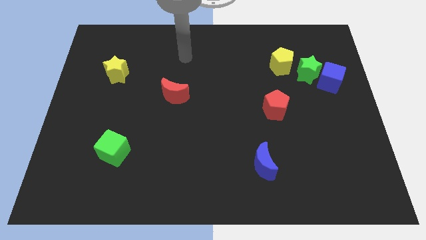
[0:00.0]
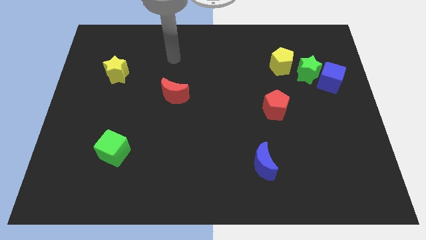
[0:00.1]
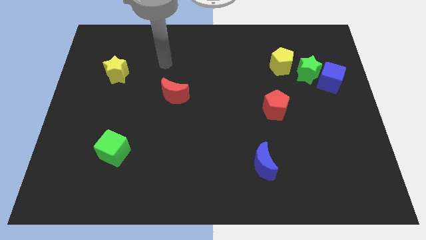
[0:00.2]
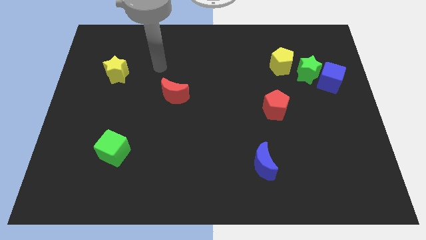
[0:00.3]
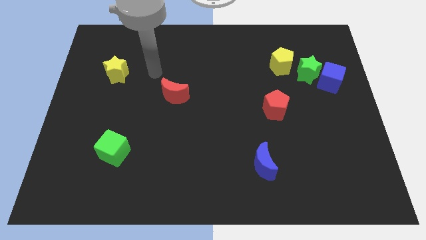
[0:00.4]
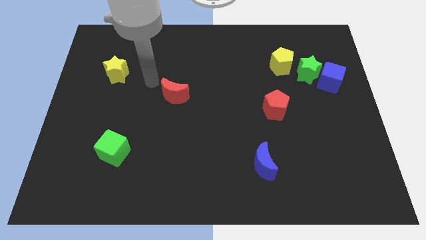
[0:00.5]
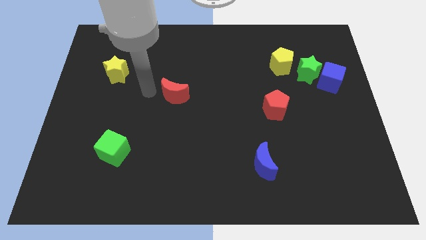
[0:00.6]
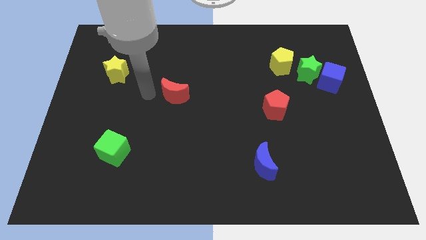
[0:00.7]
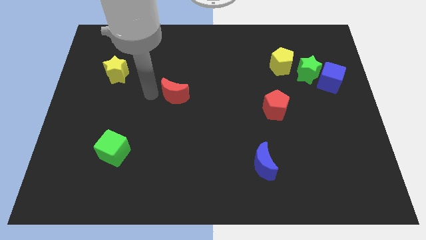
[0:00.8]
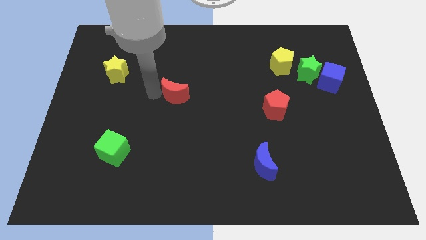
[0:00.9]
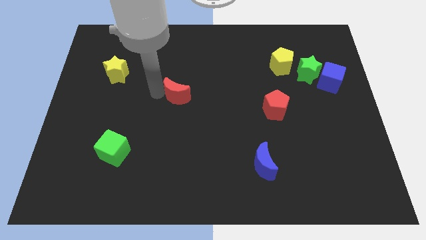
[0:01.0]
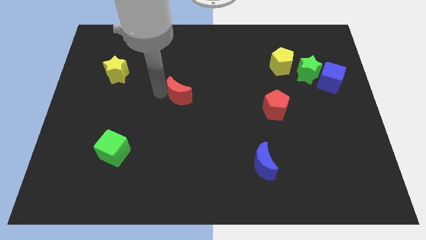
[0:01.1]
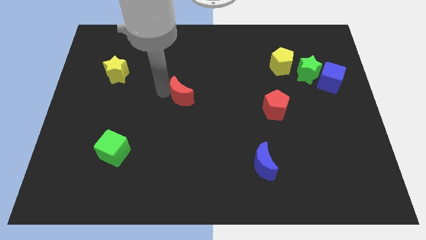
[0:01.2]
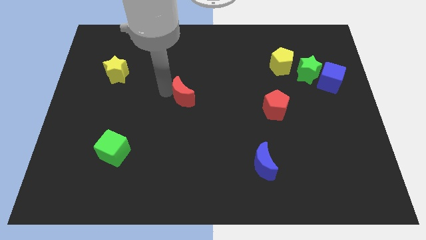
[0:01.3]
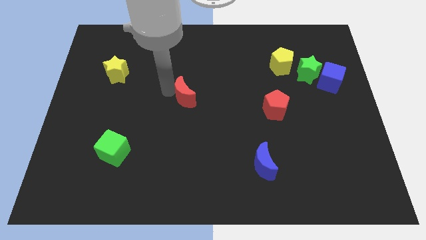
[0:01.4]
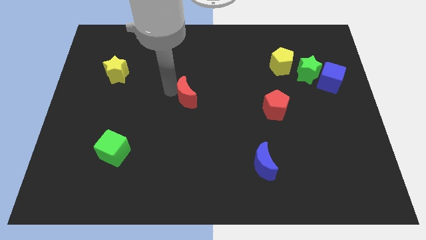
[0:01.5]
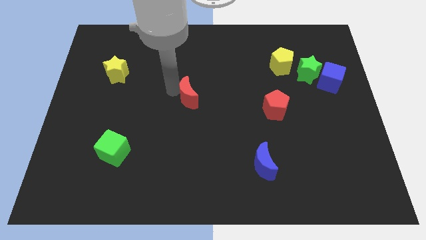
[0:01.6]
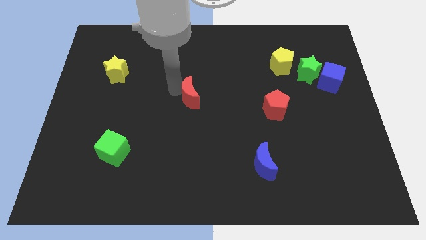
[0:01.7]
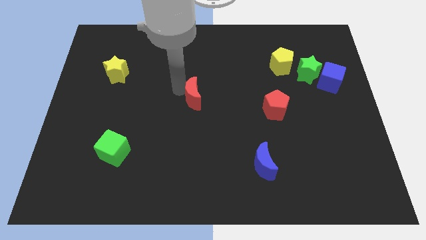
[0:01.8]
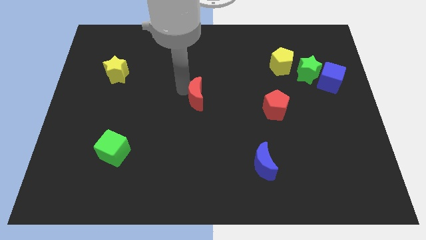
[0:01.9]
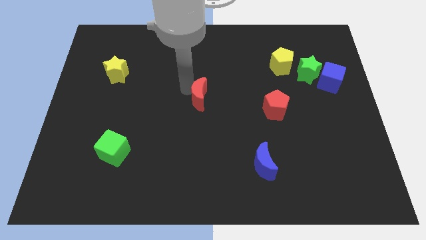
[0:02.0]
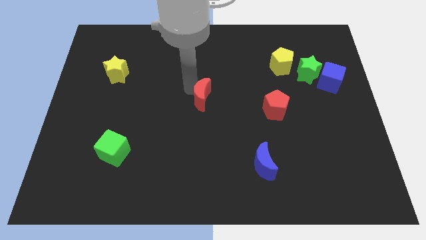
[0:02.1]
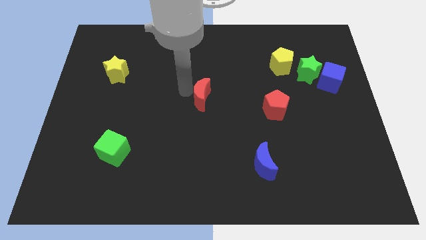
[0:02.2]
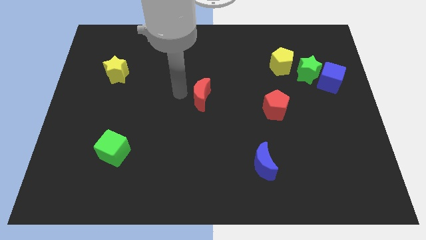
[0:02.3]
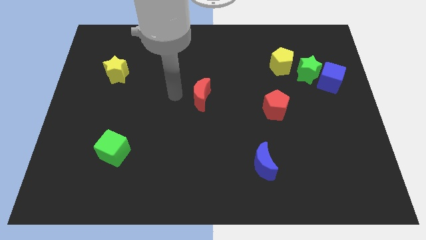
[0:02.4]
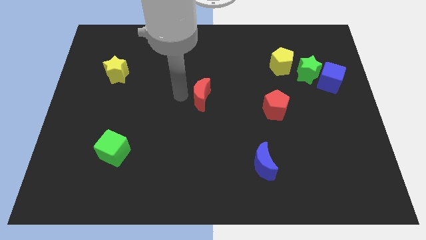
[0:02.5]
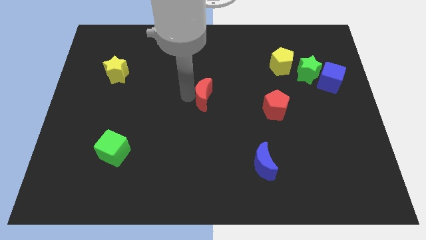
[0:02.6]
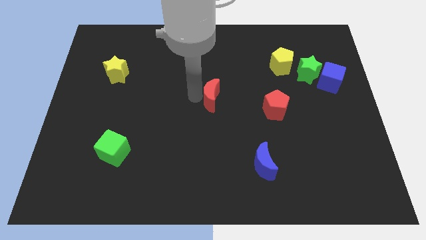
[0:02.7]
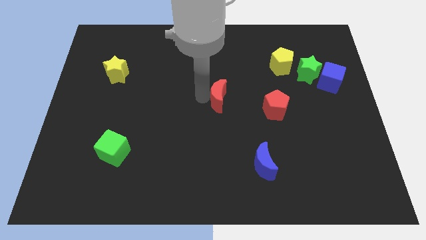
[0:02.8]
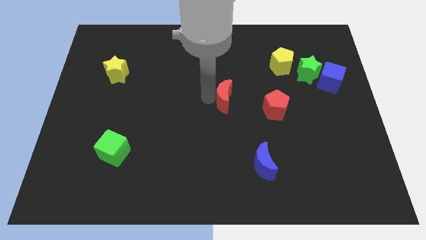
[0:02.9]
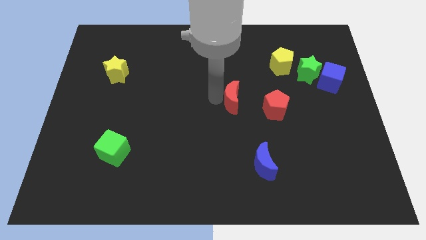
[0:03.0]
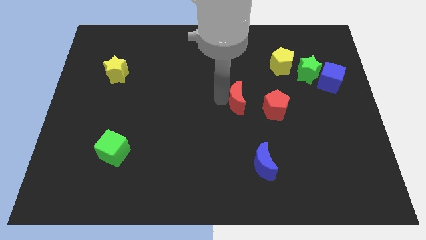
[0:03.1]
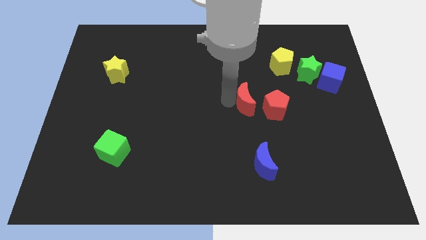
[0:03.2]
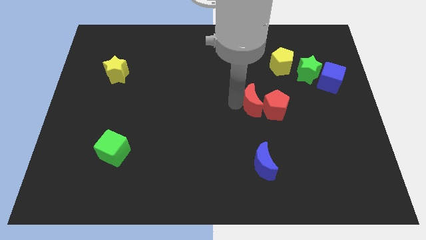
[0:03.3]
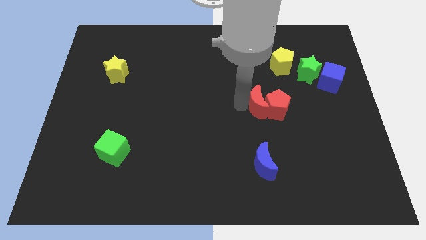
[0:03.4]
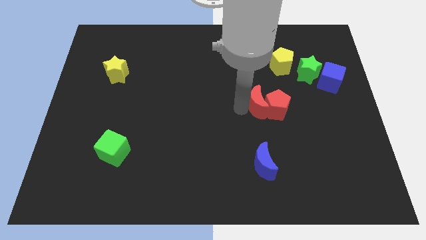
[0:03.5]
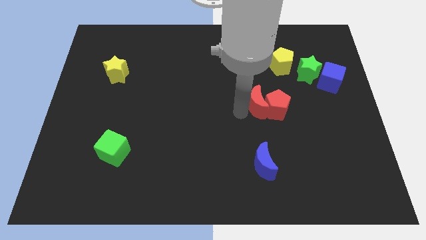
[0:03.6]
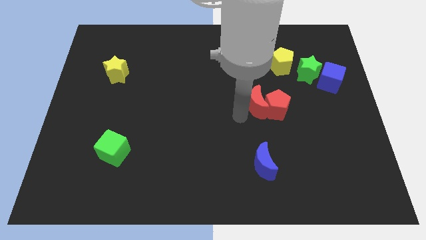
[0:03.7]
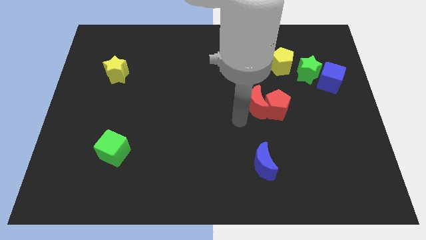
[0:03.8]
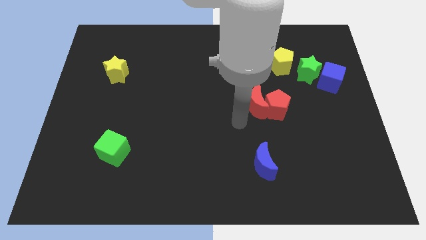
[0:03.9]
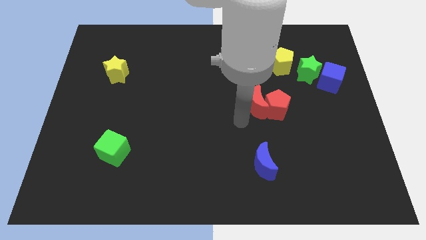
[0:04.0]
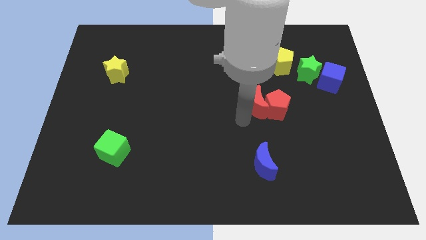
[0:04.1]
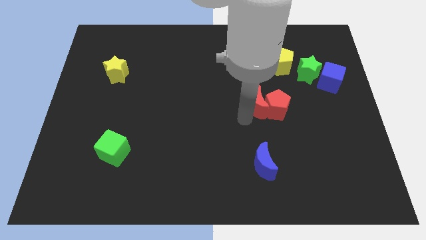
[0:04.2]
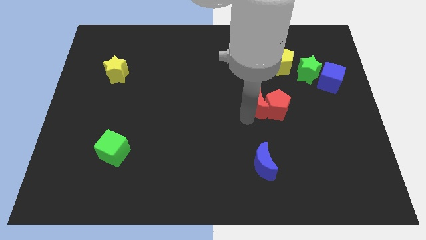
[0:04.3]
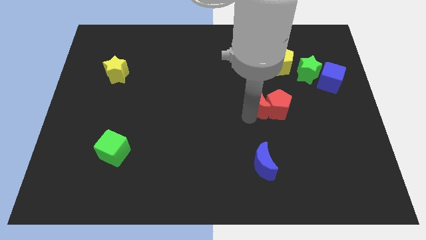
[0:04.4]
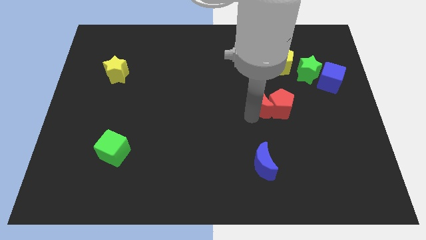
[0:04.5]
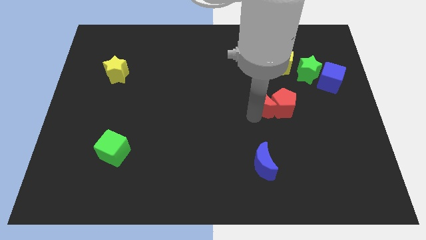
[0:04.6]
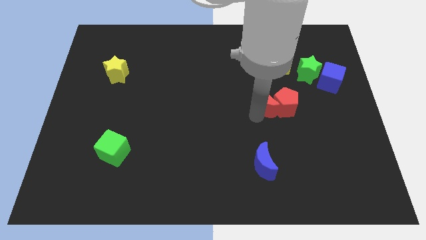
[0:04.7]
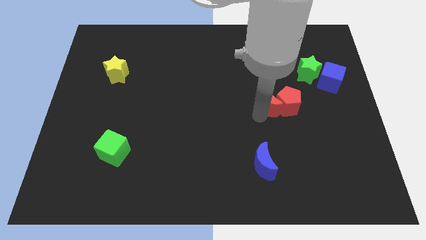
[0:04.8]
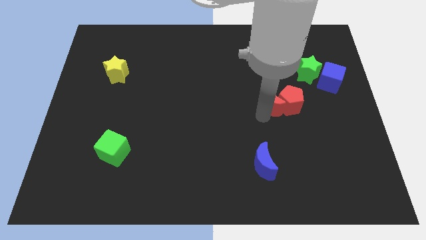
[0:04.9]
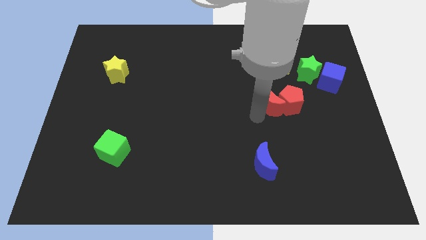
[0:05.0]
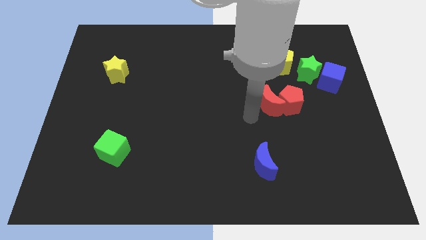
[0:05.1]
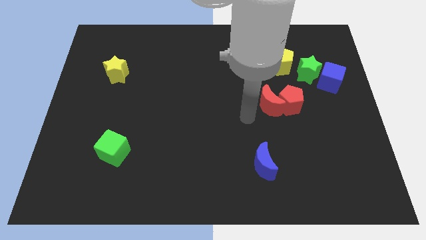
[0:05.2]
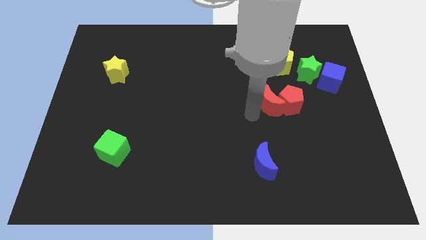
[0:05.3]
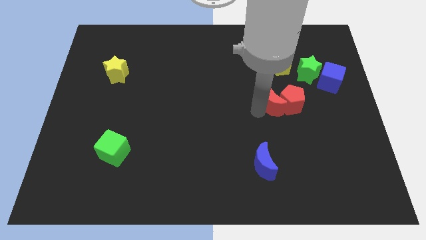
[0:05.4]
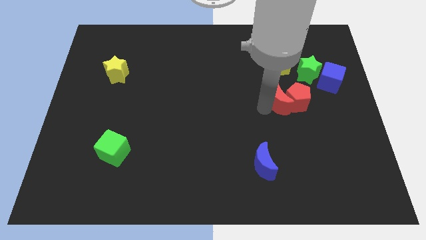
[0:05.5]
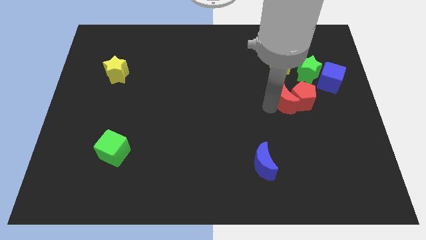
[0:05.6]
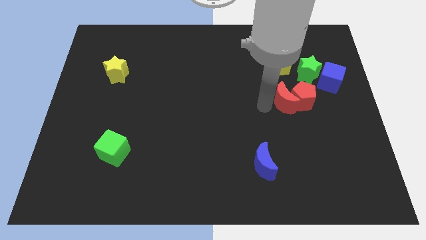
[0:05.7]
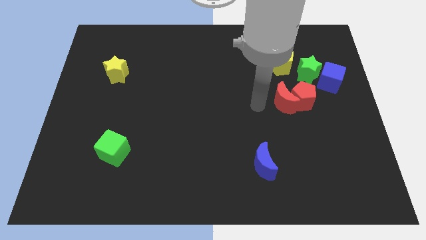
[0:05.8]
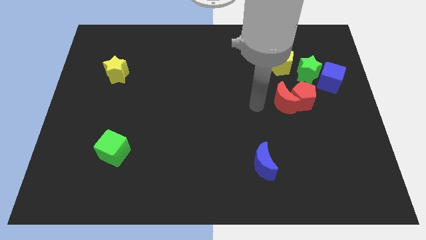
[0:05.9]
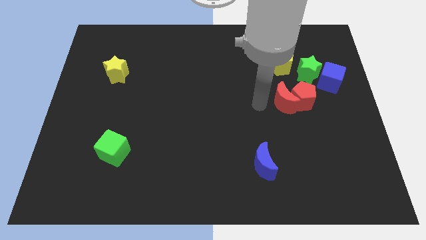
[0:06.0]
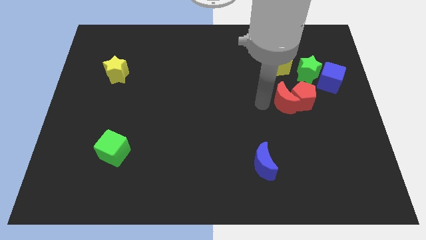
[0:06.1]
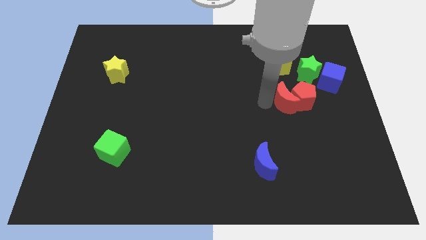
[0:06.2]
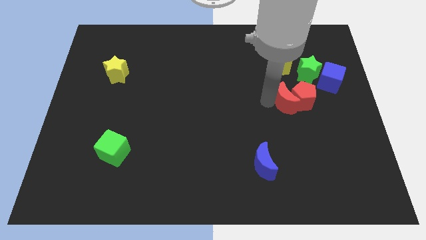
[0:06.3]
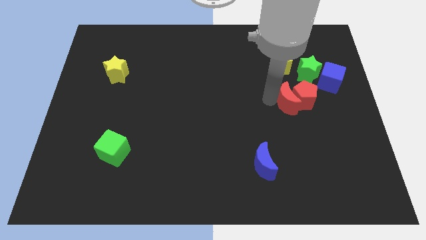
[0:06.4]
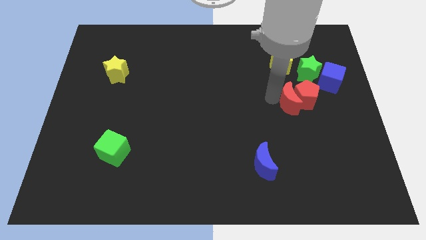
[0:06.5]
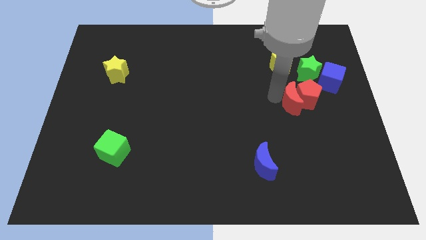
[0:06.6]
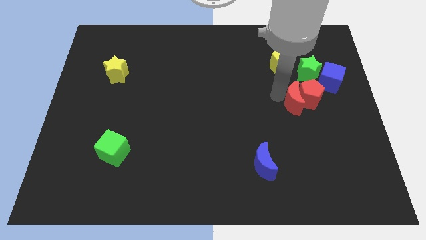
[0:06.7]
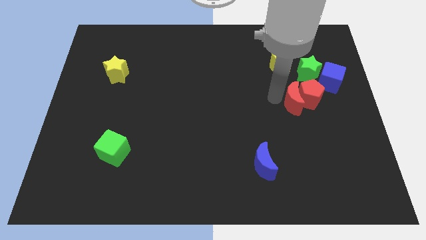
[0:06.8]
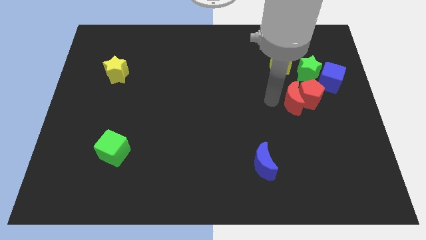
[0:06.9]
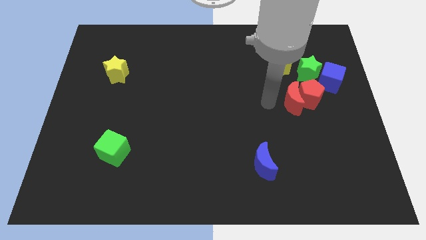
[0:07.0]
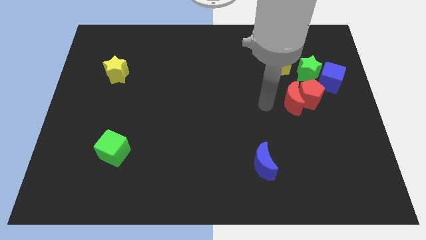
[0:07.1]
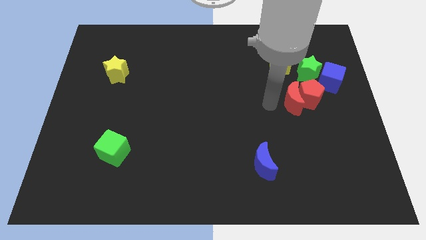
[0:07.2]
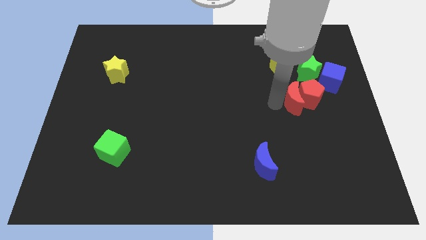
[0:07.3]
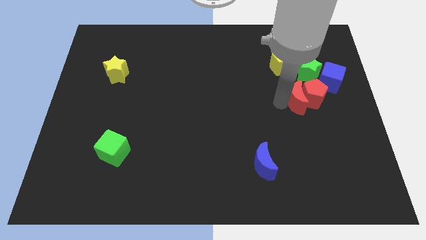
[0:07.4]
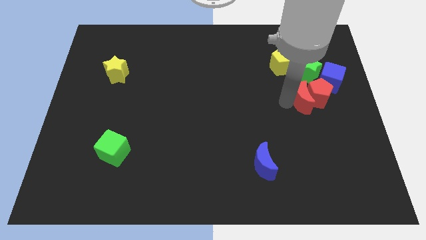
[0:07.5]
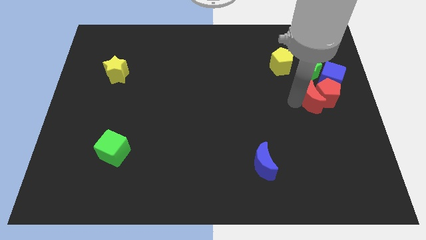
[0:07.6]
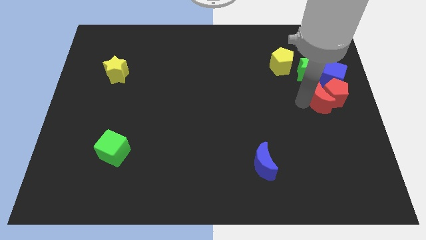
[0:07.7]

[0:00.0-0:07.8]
put the red moon to the center right
